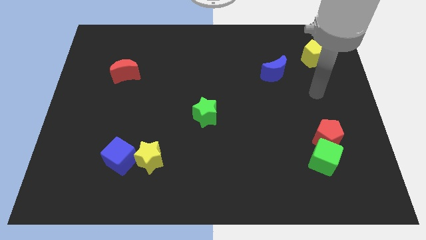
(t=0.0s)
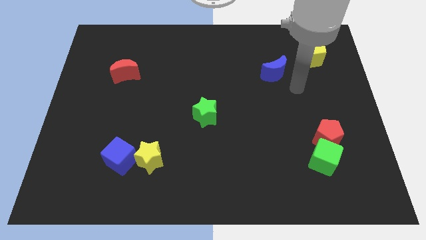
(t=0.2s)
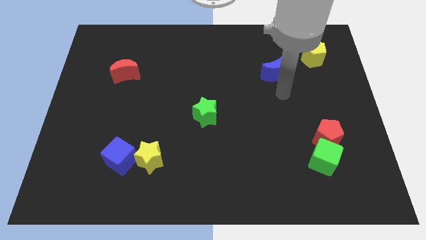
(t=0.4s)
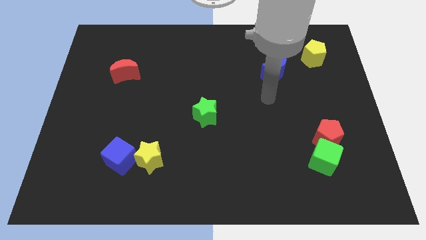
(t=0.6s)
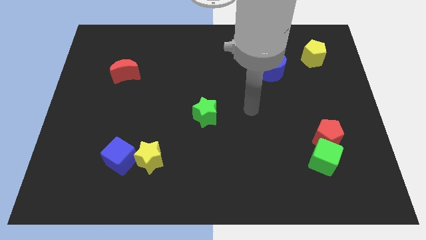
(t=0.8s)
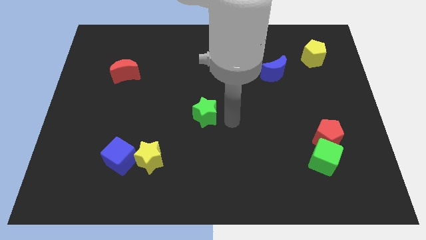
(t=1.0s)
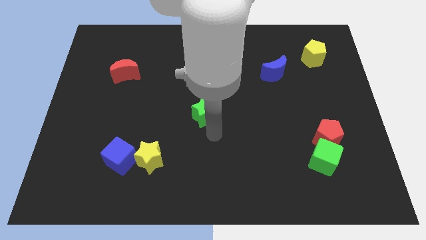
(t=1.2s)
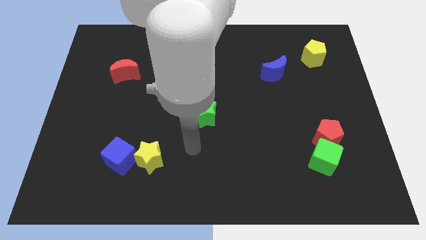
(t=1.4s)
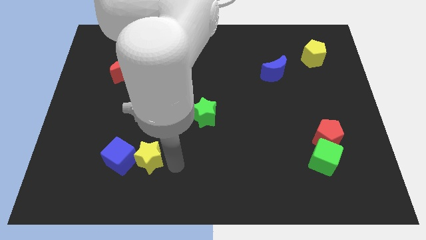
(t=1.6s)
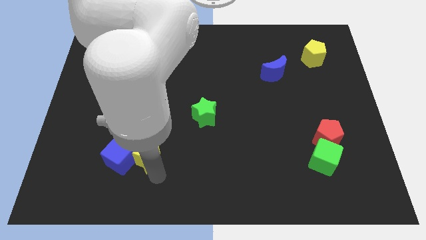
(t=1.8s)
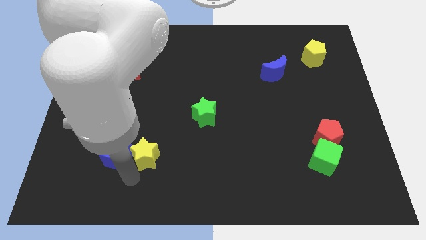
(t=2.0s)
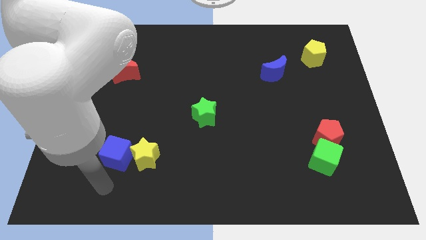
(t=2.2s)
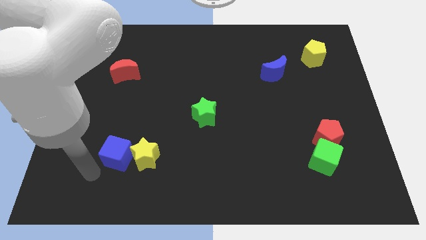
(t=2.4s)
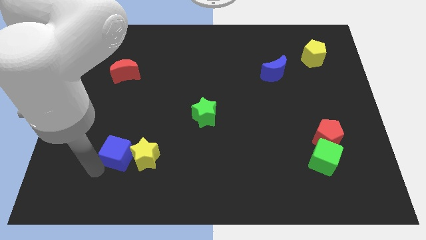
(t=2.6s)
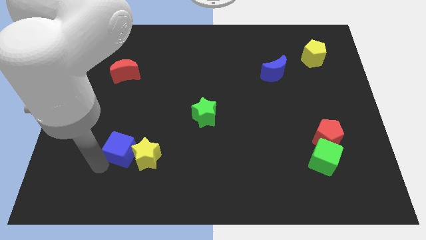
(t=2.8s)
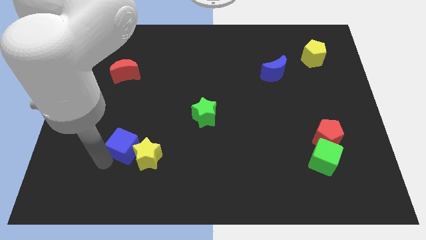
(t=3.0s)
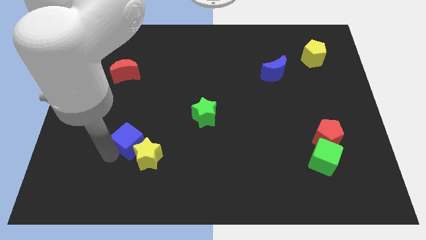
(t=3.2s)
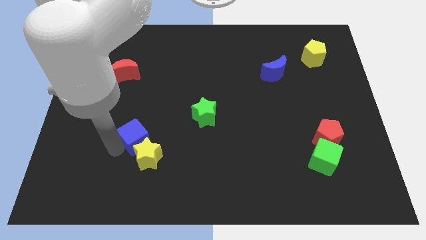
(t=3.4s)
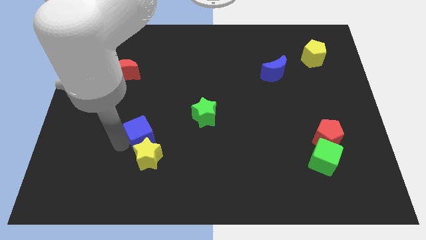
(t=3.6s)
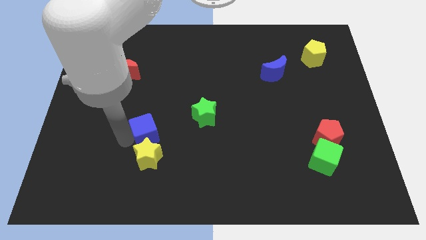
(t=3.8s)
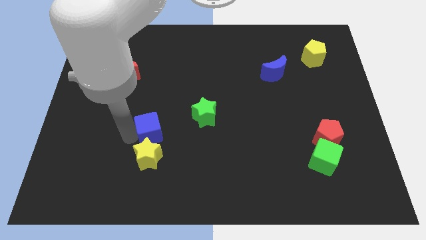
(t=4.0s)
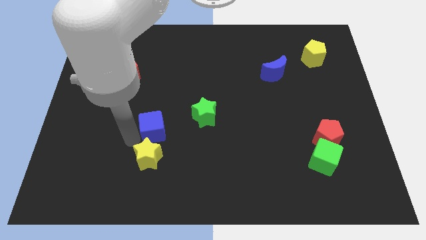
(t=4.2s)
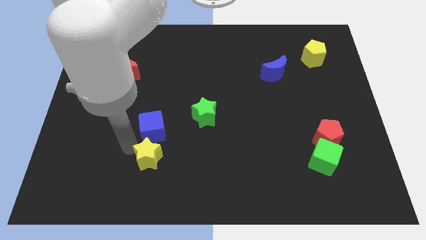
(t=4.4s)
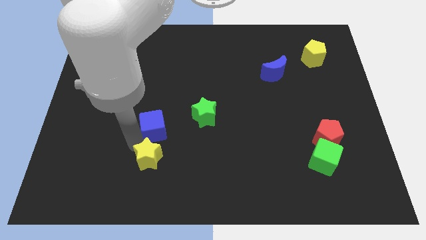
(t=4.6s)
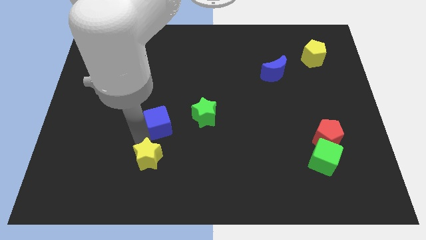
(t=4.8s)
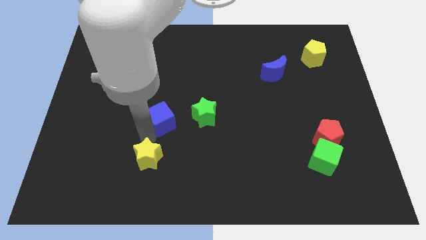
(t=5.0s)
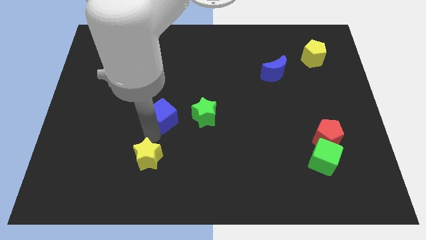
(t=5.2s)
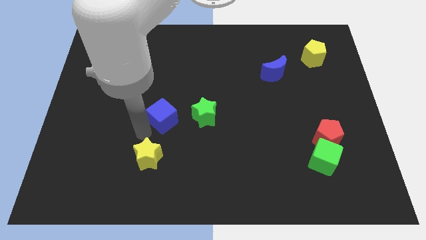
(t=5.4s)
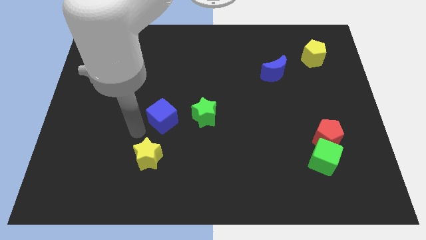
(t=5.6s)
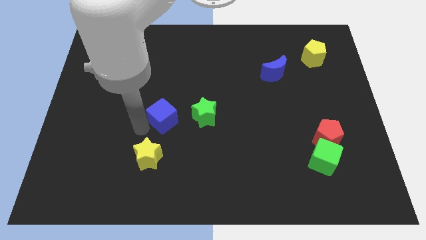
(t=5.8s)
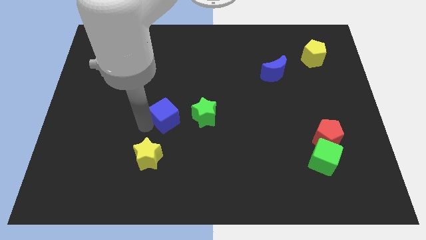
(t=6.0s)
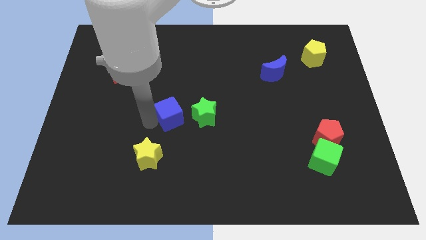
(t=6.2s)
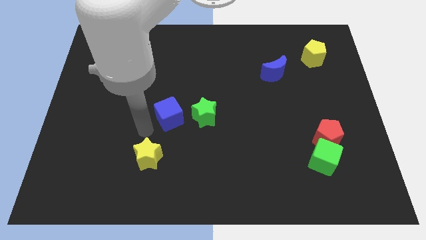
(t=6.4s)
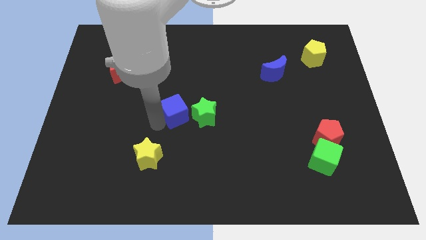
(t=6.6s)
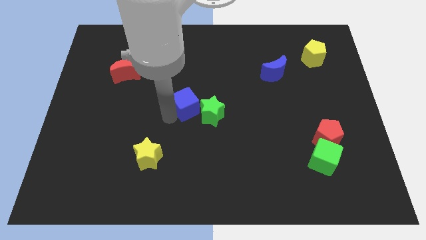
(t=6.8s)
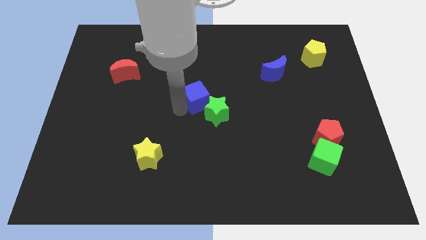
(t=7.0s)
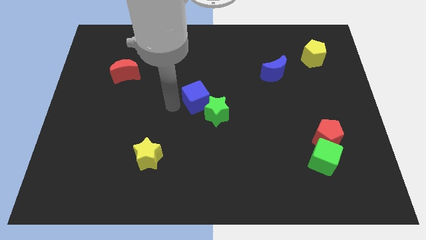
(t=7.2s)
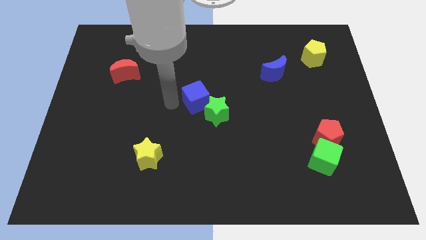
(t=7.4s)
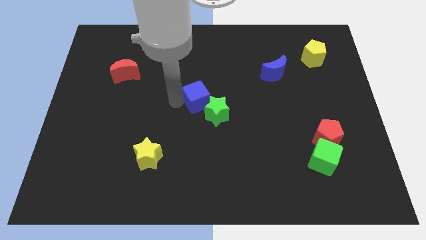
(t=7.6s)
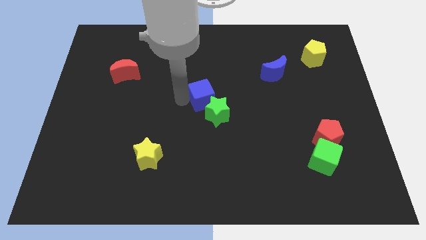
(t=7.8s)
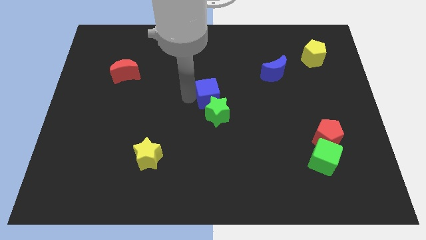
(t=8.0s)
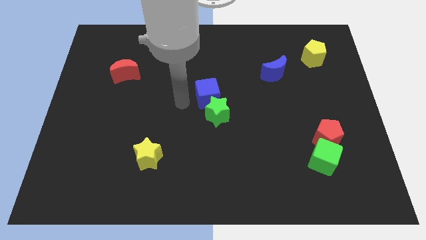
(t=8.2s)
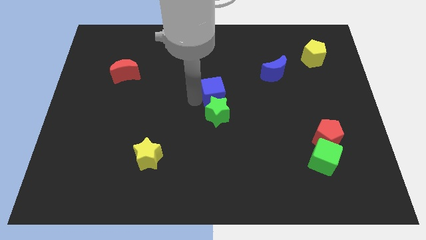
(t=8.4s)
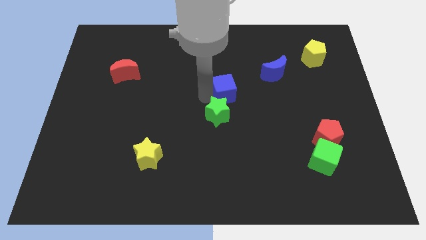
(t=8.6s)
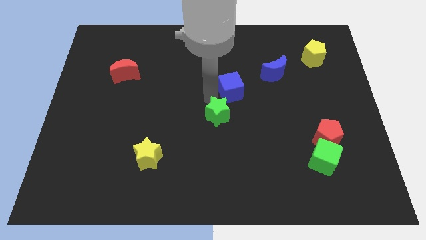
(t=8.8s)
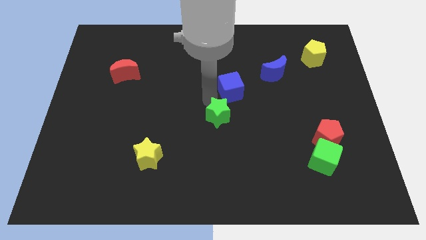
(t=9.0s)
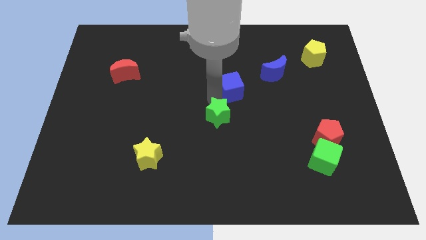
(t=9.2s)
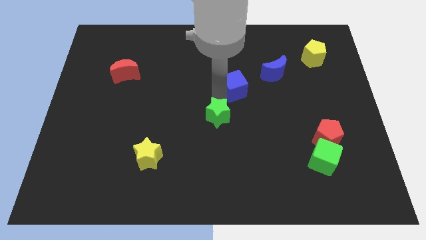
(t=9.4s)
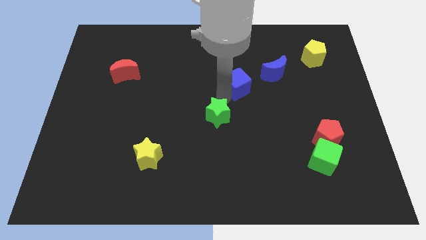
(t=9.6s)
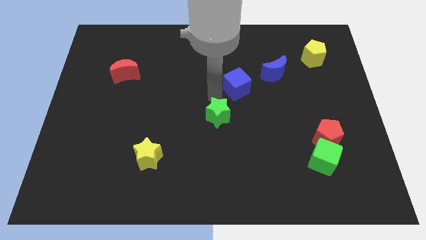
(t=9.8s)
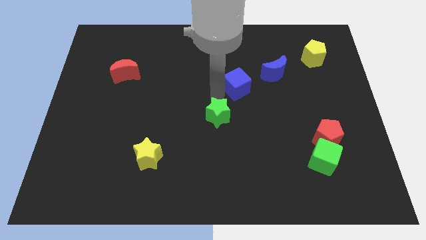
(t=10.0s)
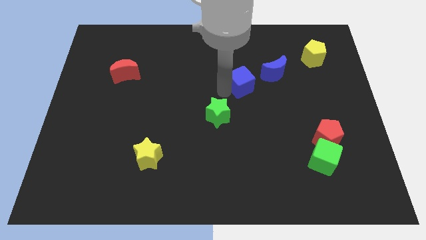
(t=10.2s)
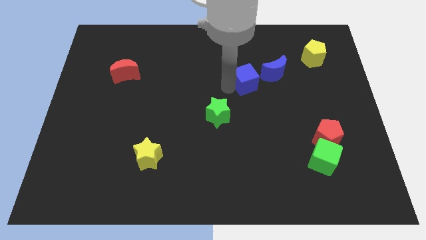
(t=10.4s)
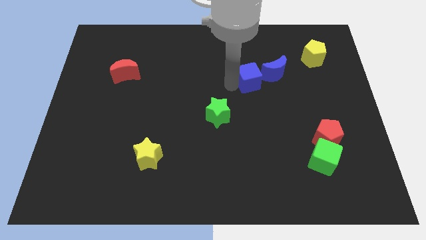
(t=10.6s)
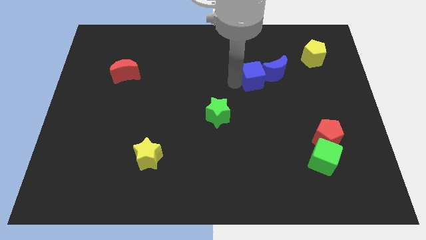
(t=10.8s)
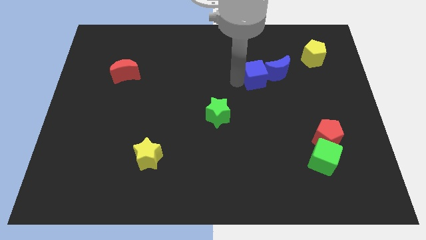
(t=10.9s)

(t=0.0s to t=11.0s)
move the blue cube towards the blue moon

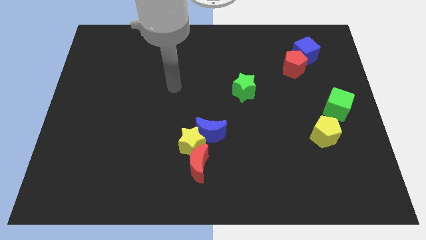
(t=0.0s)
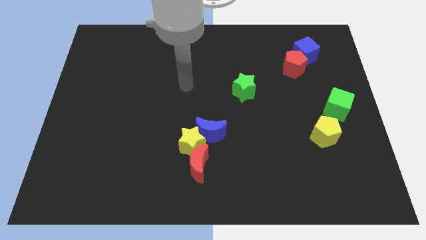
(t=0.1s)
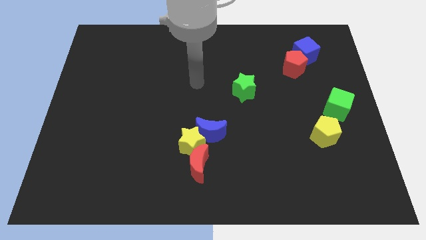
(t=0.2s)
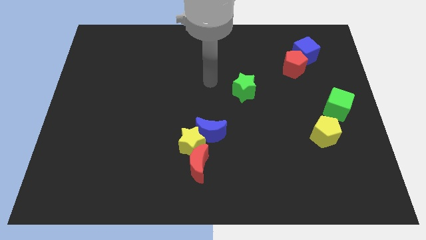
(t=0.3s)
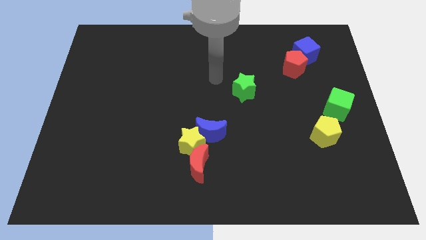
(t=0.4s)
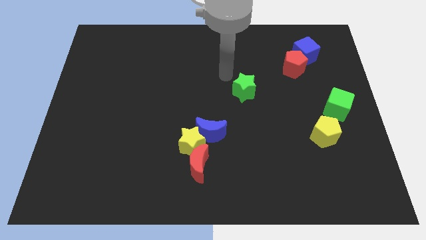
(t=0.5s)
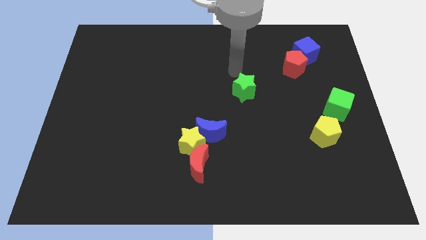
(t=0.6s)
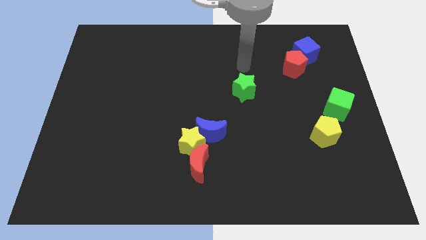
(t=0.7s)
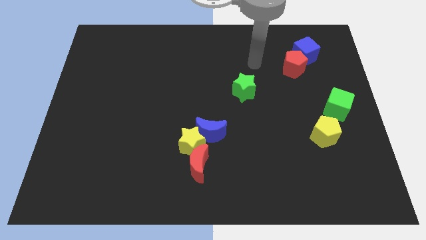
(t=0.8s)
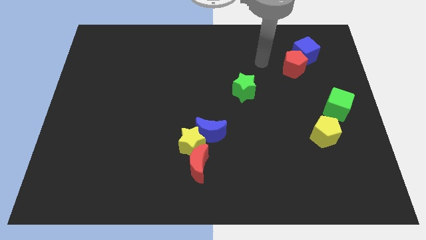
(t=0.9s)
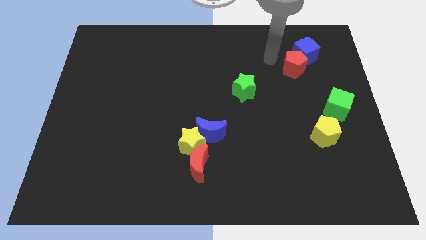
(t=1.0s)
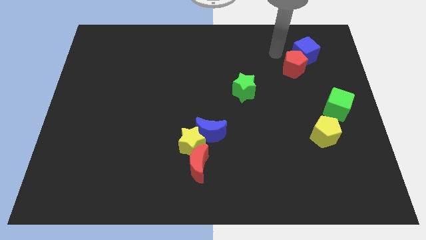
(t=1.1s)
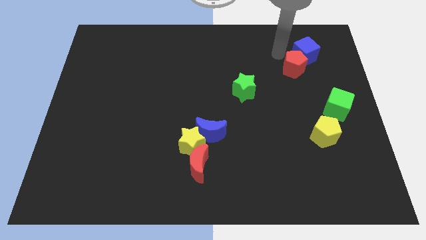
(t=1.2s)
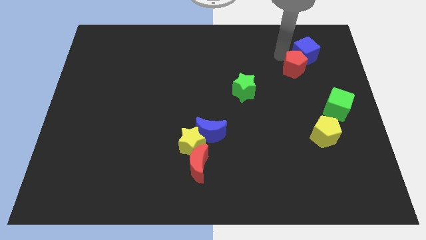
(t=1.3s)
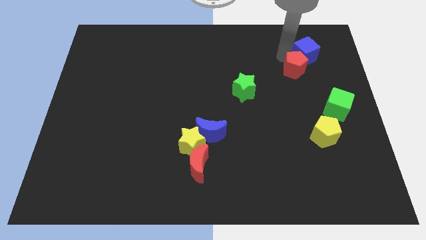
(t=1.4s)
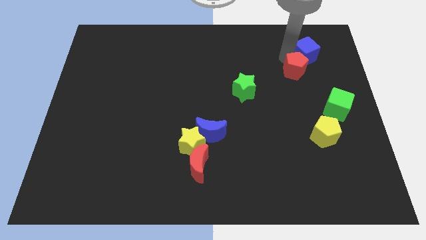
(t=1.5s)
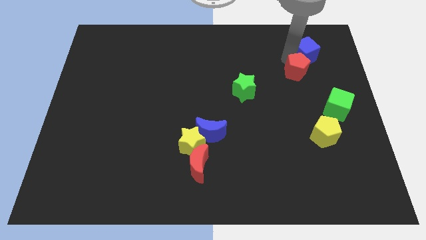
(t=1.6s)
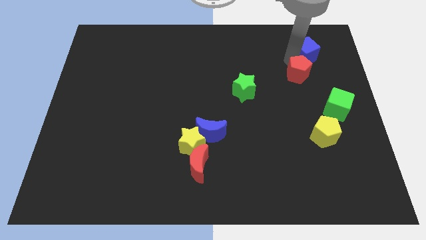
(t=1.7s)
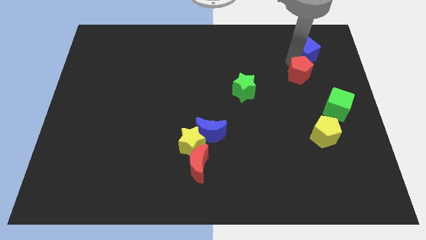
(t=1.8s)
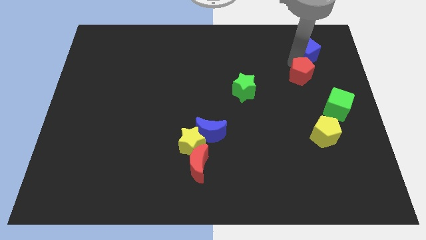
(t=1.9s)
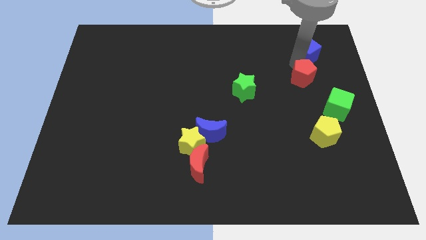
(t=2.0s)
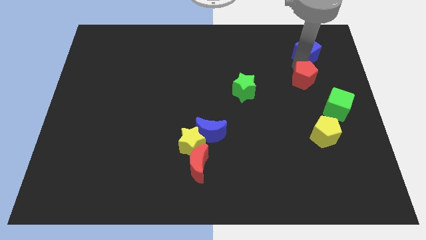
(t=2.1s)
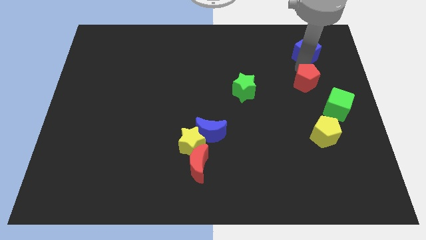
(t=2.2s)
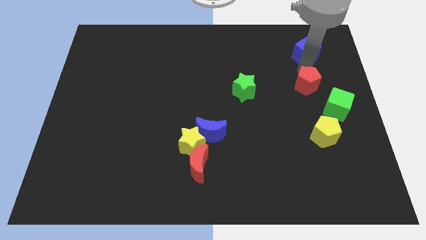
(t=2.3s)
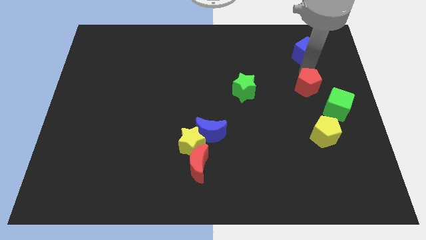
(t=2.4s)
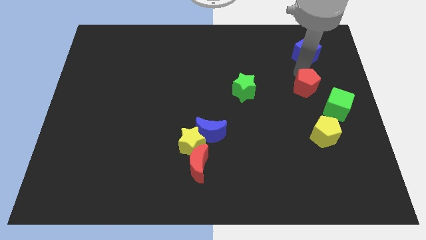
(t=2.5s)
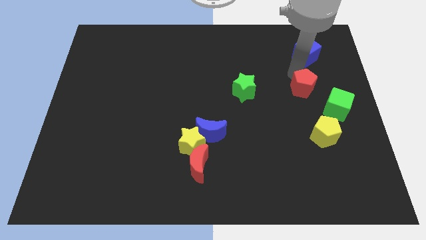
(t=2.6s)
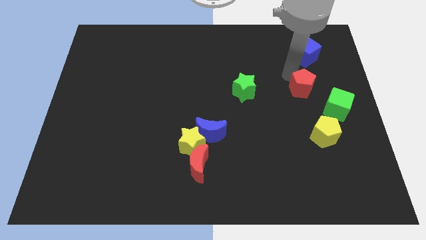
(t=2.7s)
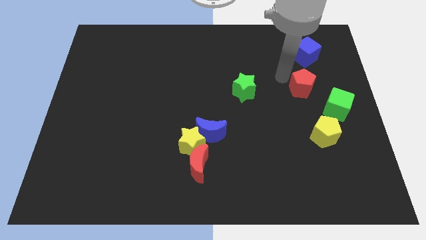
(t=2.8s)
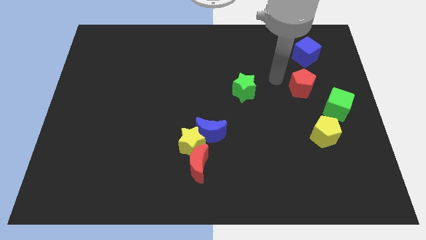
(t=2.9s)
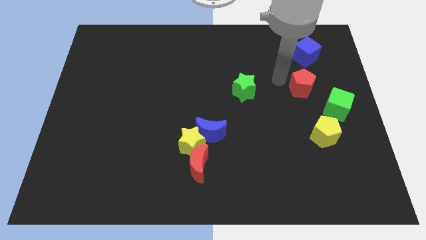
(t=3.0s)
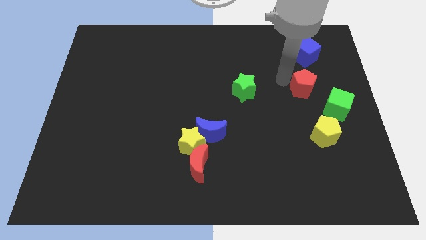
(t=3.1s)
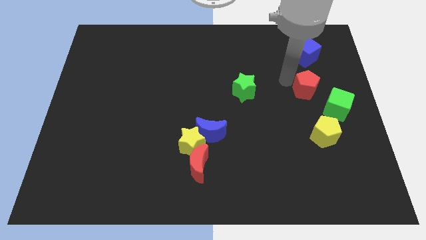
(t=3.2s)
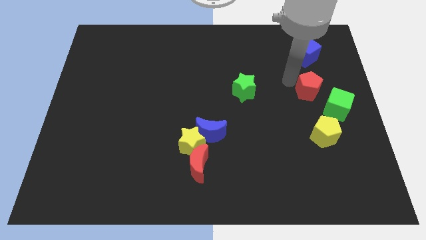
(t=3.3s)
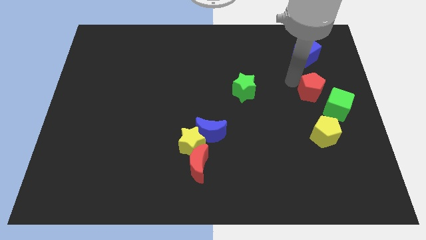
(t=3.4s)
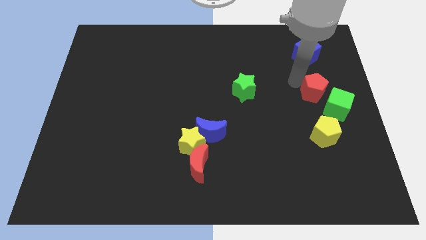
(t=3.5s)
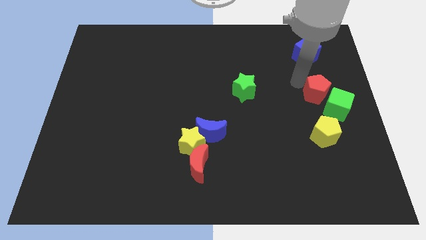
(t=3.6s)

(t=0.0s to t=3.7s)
push the red pentagon to the green cube
